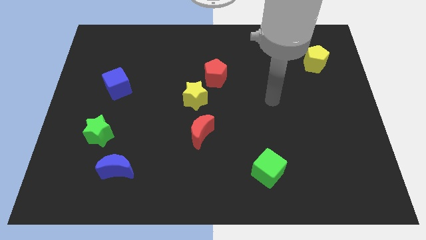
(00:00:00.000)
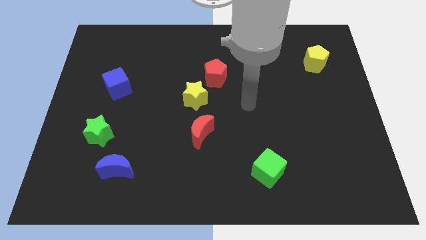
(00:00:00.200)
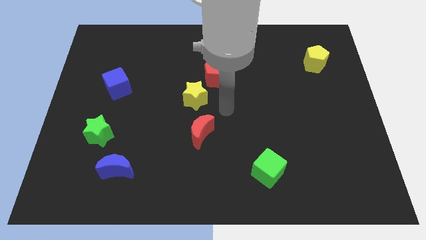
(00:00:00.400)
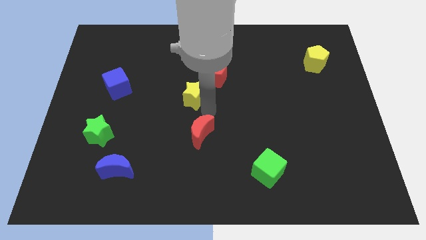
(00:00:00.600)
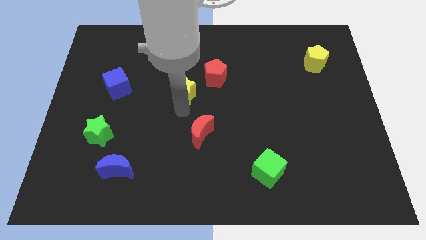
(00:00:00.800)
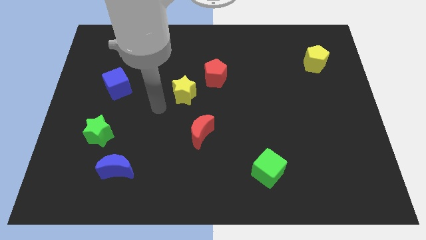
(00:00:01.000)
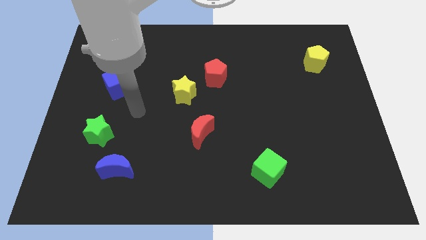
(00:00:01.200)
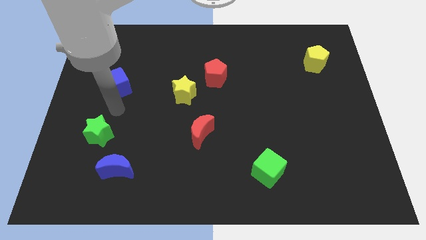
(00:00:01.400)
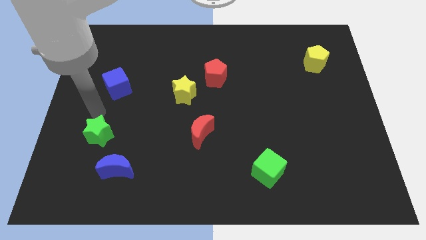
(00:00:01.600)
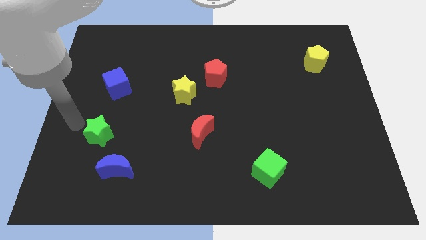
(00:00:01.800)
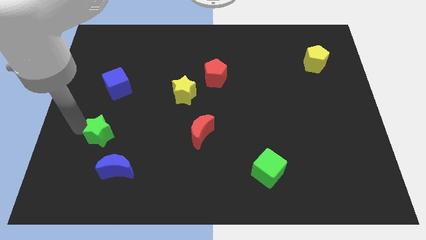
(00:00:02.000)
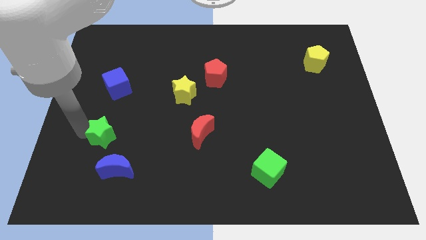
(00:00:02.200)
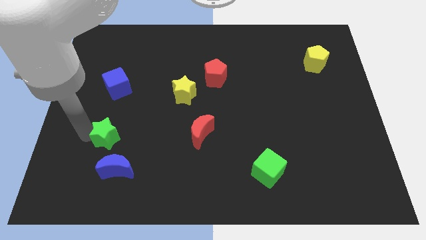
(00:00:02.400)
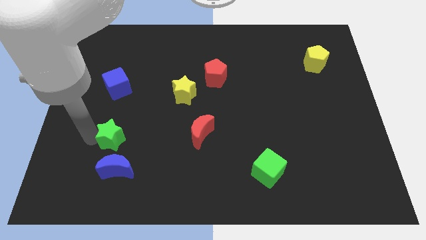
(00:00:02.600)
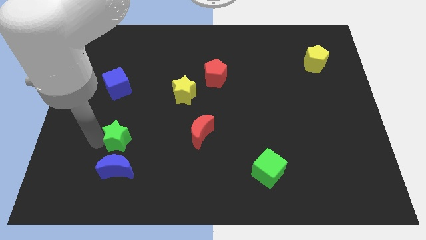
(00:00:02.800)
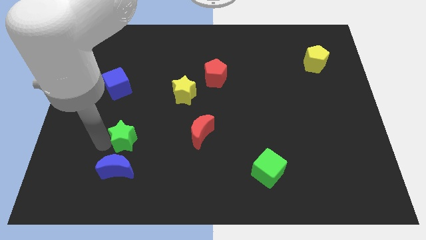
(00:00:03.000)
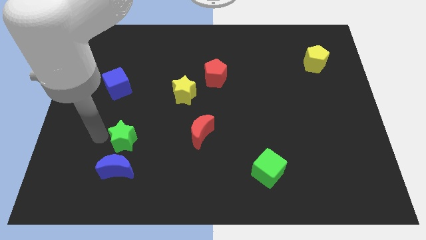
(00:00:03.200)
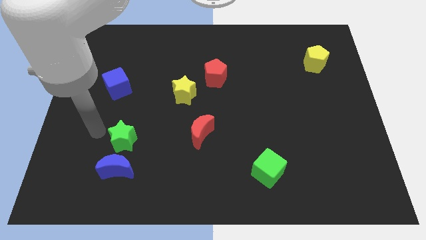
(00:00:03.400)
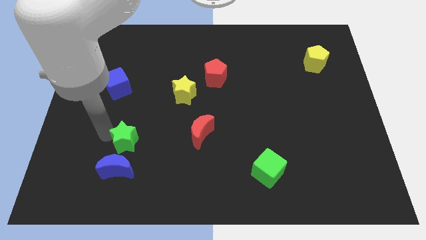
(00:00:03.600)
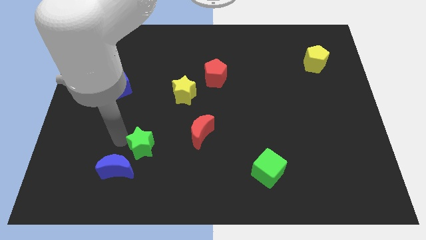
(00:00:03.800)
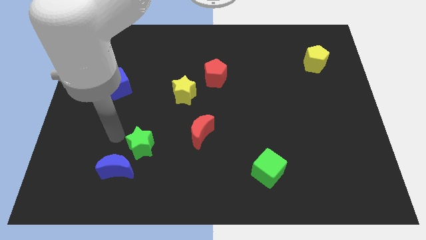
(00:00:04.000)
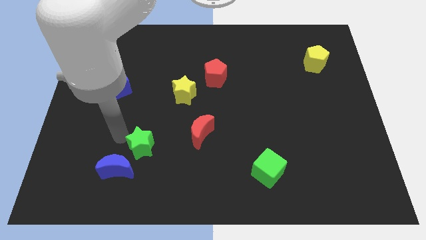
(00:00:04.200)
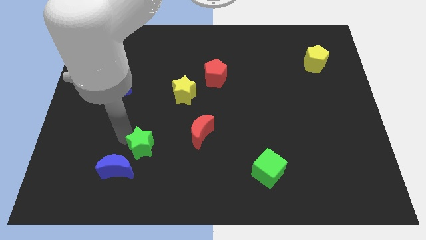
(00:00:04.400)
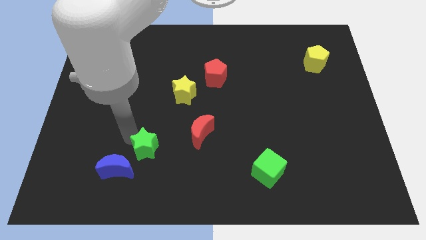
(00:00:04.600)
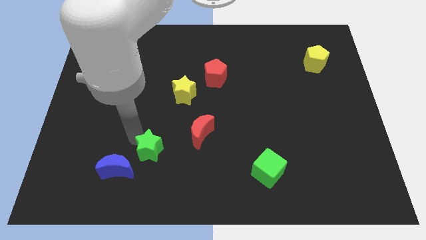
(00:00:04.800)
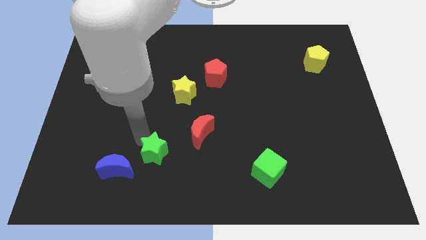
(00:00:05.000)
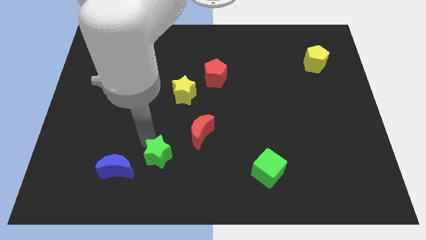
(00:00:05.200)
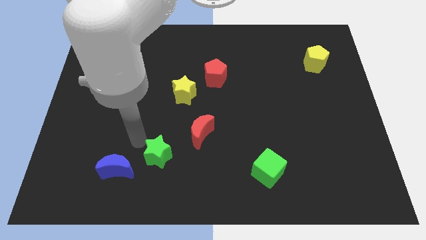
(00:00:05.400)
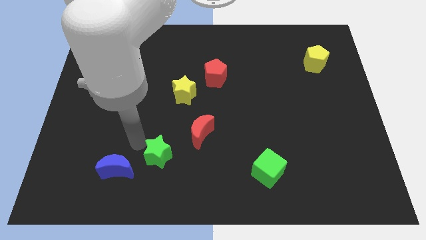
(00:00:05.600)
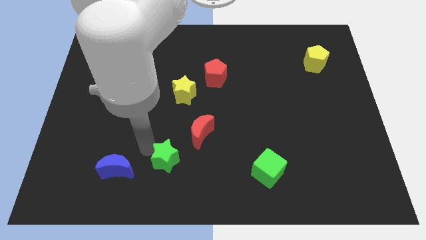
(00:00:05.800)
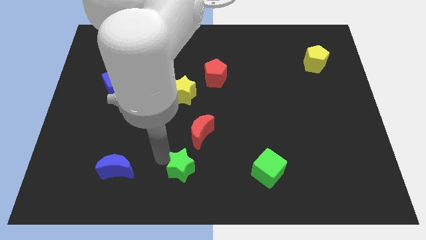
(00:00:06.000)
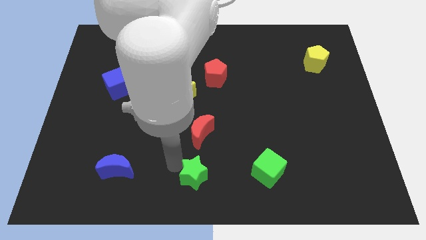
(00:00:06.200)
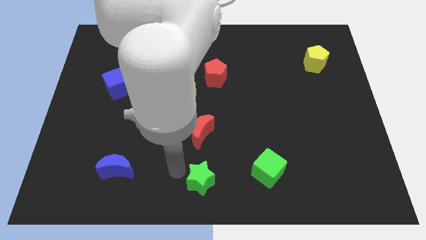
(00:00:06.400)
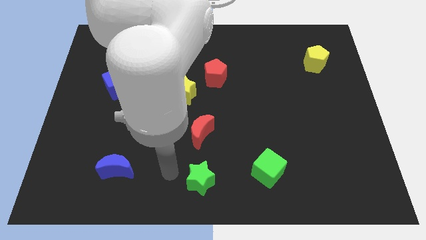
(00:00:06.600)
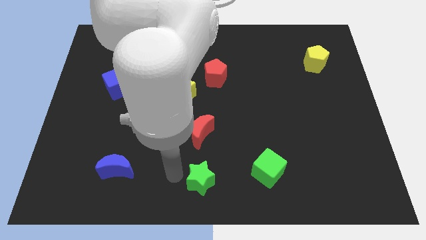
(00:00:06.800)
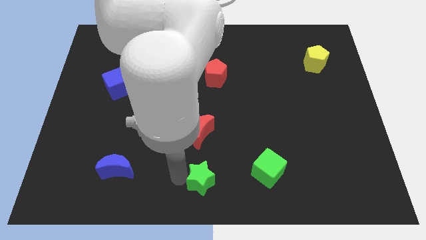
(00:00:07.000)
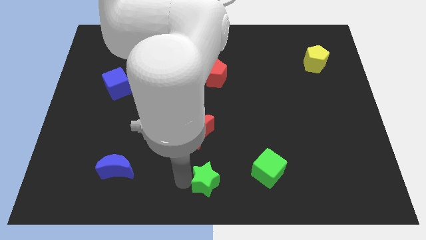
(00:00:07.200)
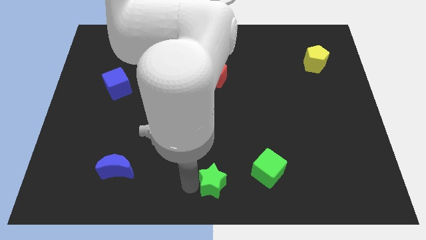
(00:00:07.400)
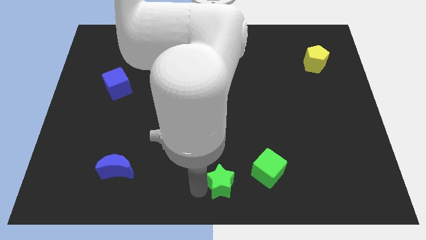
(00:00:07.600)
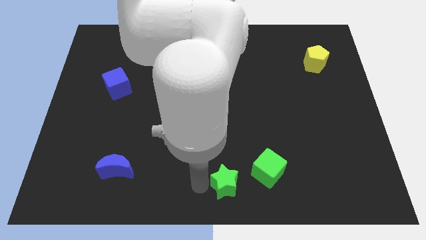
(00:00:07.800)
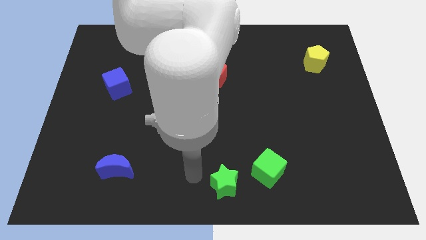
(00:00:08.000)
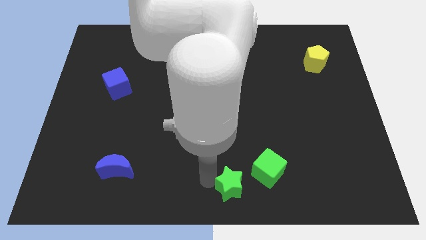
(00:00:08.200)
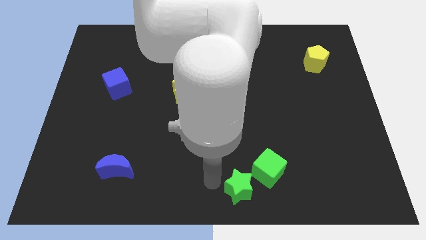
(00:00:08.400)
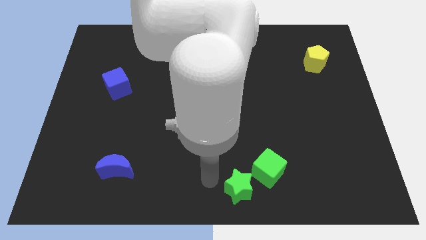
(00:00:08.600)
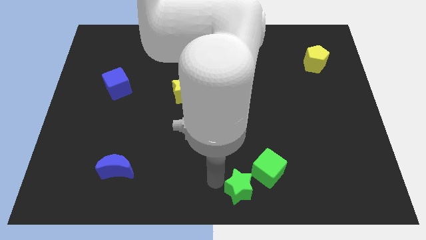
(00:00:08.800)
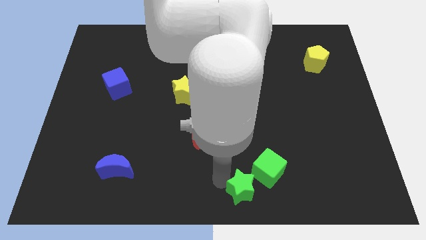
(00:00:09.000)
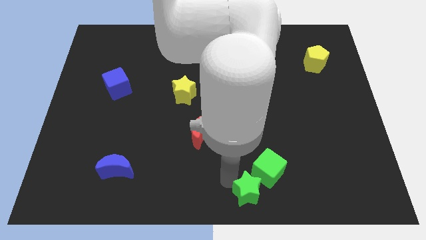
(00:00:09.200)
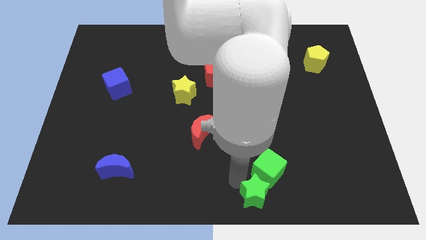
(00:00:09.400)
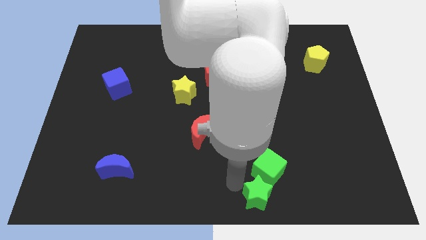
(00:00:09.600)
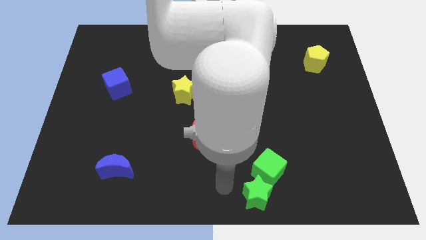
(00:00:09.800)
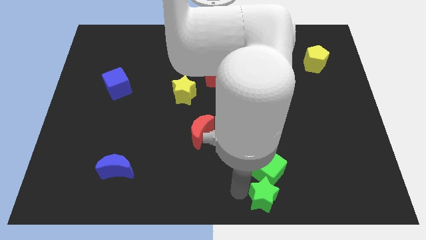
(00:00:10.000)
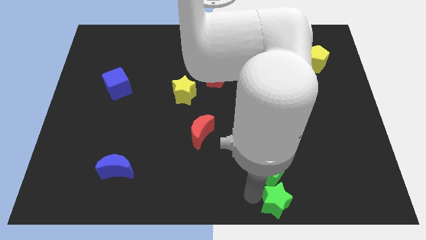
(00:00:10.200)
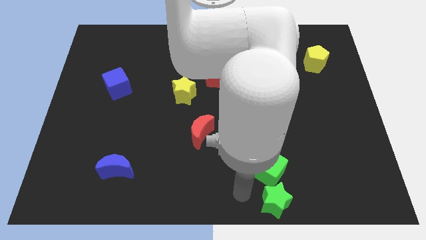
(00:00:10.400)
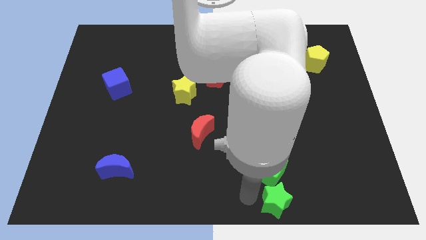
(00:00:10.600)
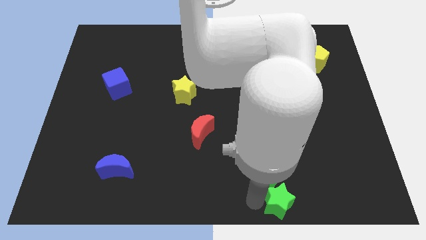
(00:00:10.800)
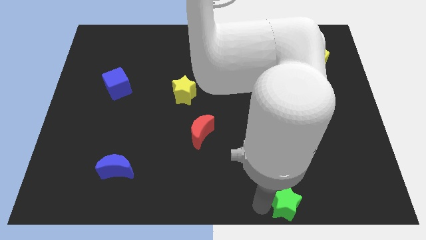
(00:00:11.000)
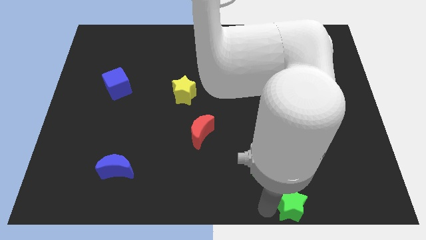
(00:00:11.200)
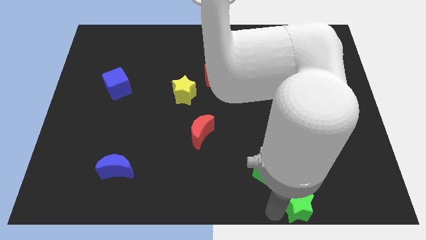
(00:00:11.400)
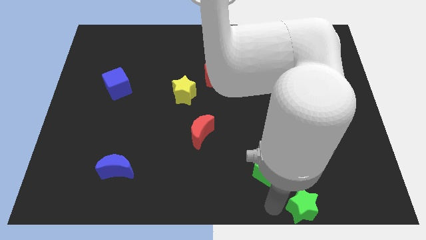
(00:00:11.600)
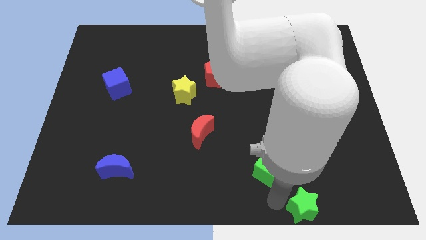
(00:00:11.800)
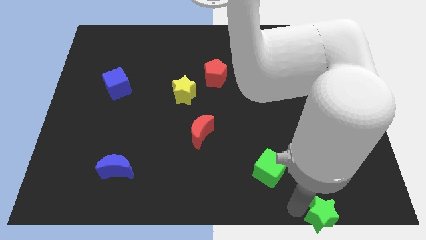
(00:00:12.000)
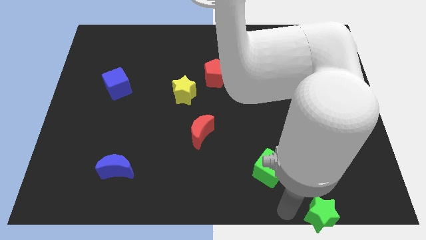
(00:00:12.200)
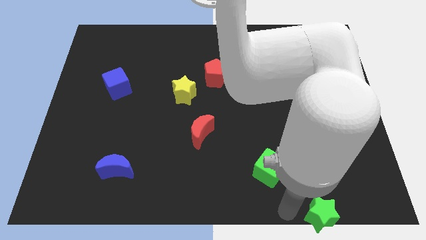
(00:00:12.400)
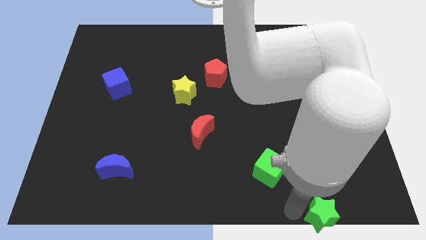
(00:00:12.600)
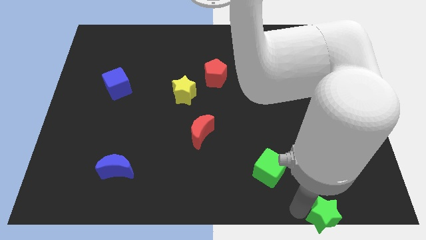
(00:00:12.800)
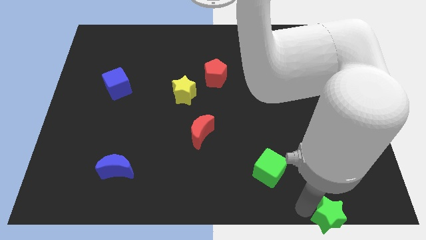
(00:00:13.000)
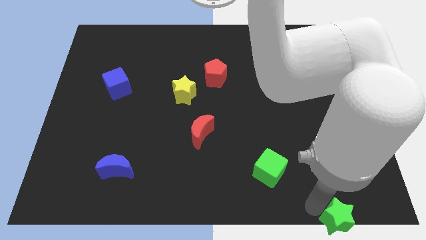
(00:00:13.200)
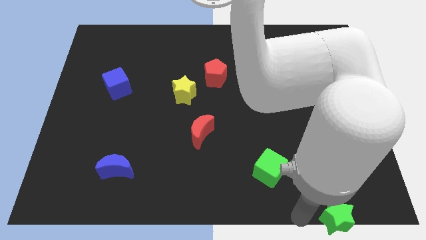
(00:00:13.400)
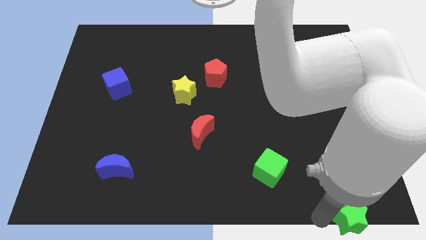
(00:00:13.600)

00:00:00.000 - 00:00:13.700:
put the green star to the lower right corner
